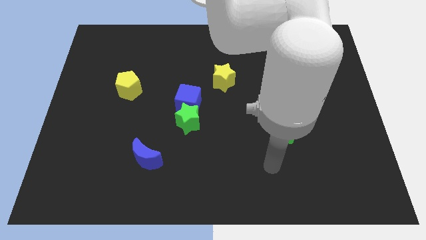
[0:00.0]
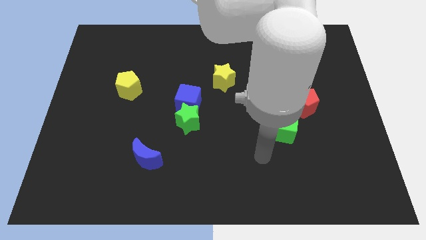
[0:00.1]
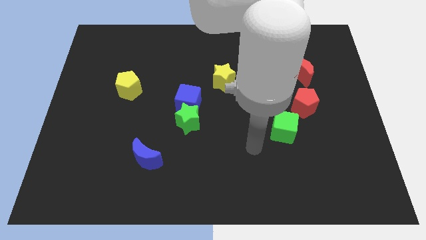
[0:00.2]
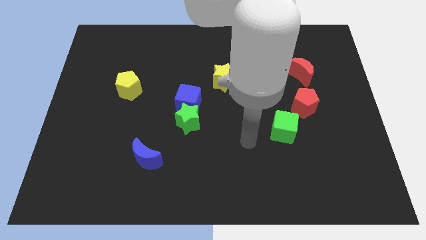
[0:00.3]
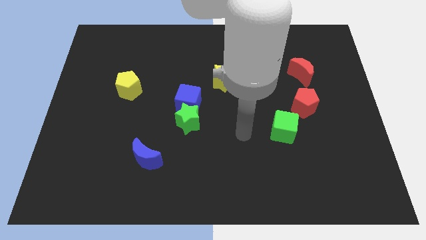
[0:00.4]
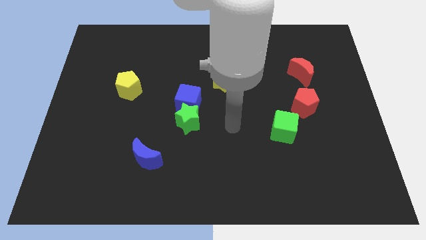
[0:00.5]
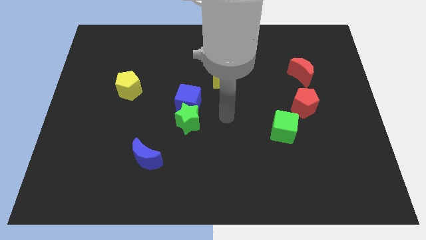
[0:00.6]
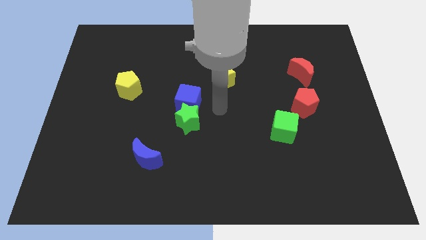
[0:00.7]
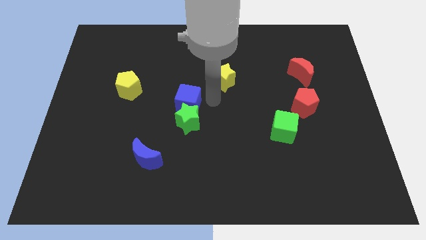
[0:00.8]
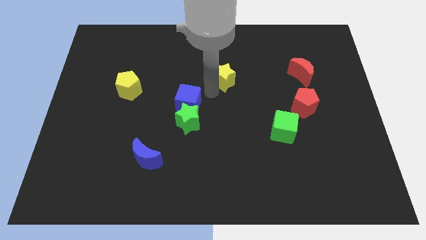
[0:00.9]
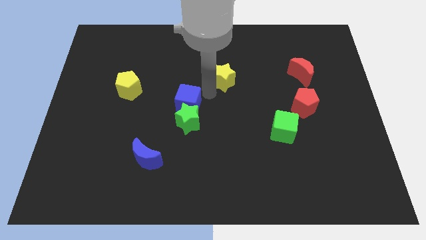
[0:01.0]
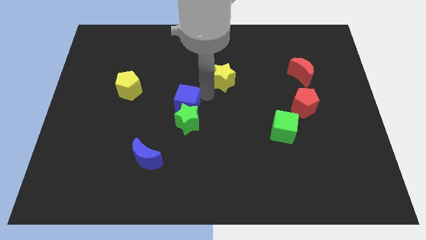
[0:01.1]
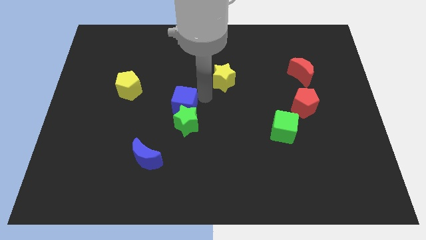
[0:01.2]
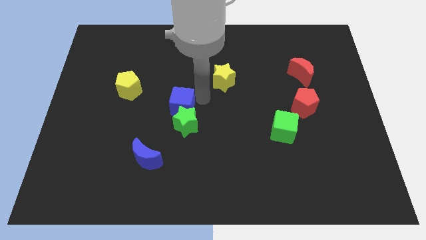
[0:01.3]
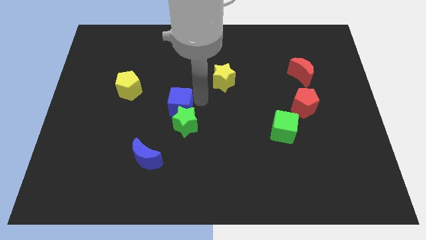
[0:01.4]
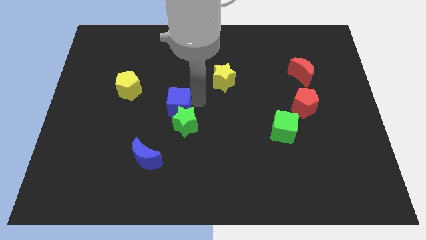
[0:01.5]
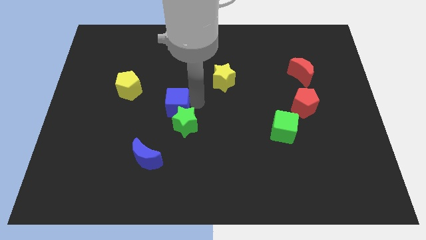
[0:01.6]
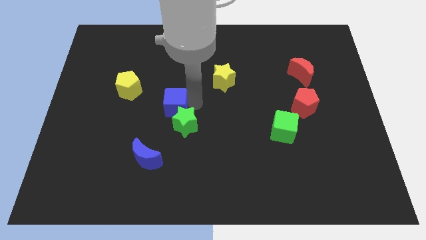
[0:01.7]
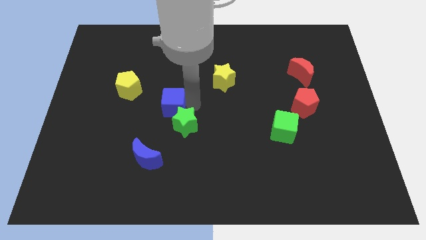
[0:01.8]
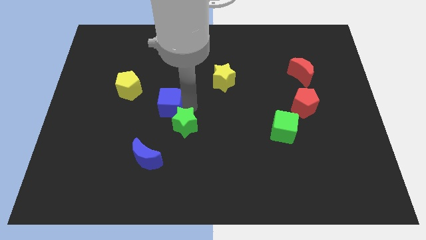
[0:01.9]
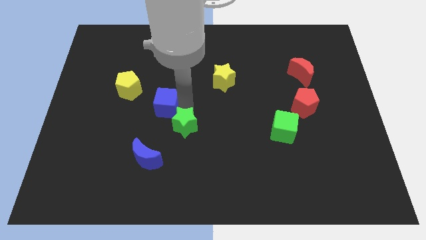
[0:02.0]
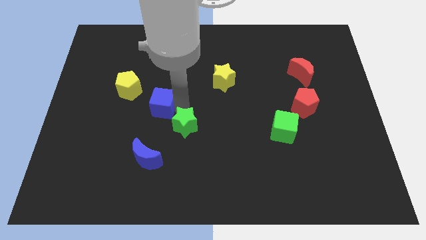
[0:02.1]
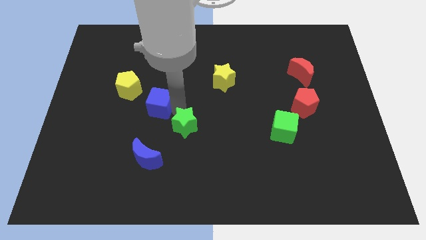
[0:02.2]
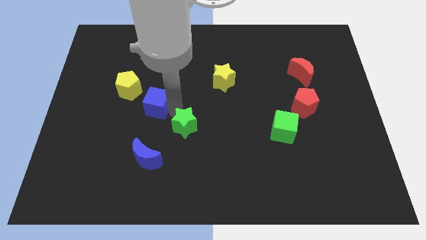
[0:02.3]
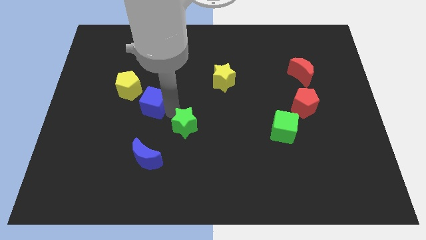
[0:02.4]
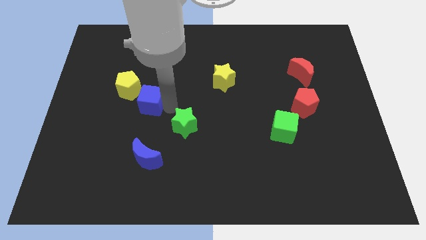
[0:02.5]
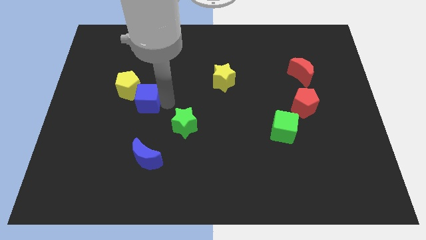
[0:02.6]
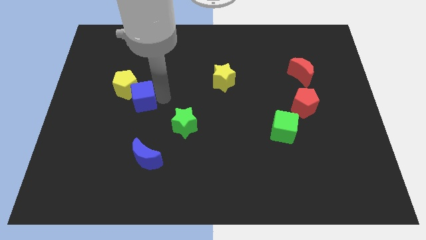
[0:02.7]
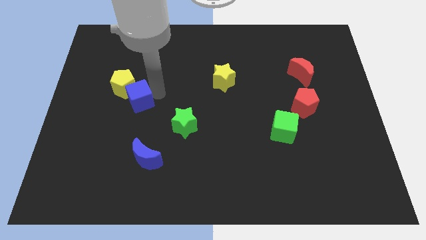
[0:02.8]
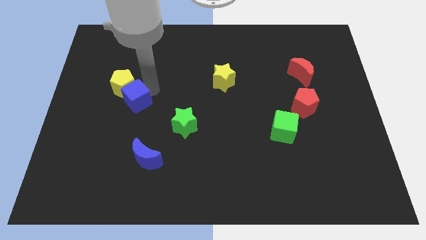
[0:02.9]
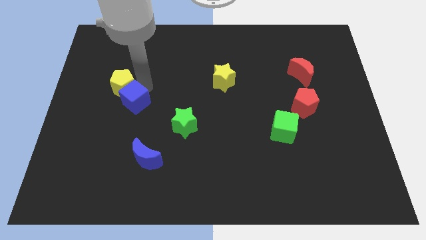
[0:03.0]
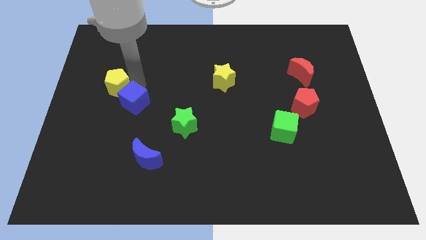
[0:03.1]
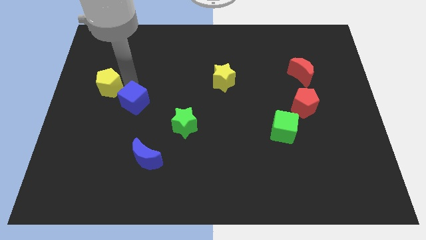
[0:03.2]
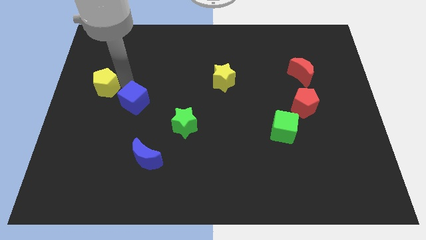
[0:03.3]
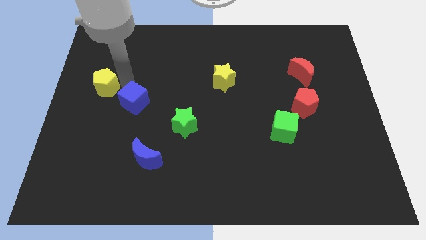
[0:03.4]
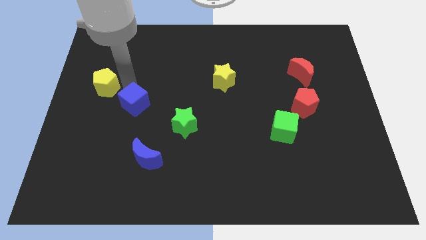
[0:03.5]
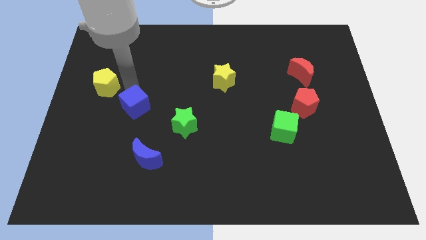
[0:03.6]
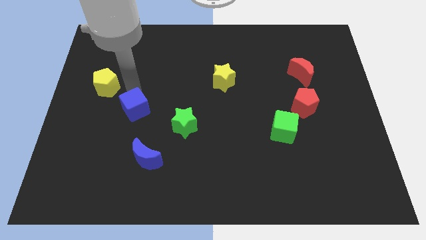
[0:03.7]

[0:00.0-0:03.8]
slide the blue cube diagonally down and left a bit

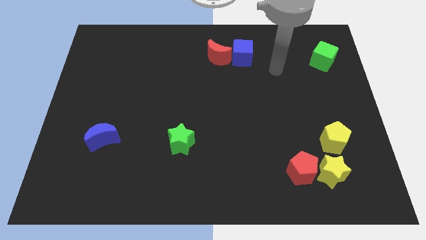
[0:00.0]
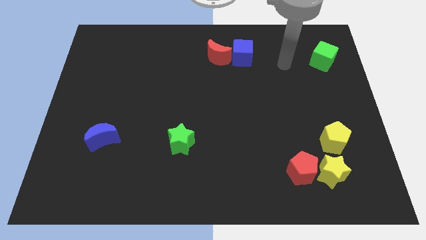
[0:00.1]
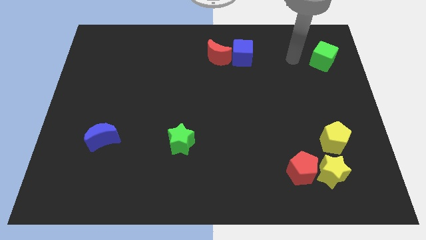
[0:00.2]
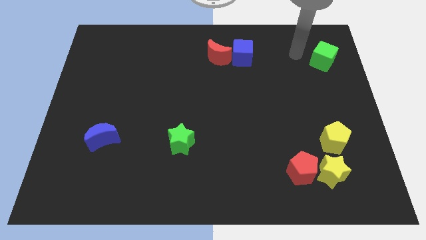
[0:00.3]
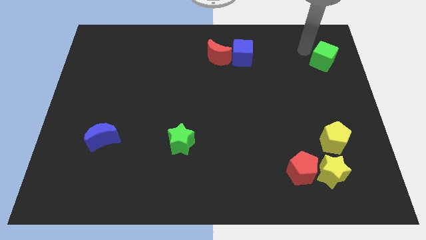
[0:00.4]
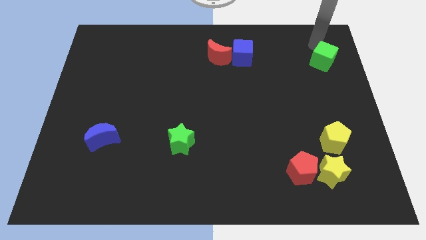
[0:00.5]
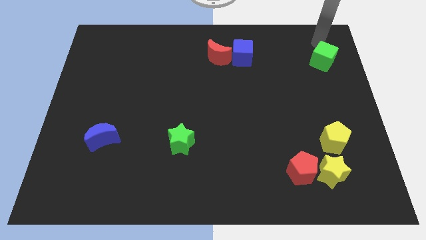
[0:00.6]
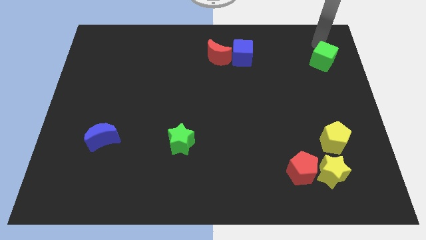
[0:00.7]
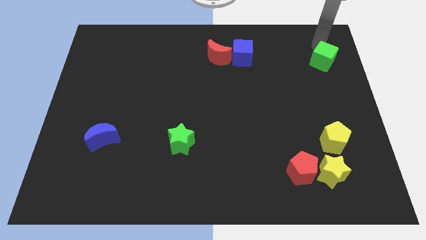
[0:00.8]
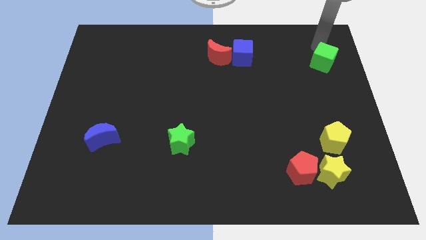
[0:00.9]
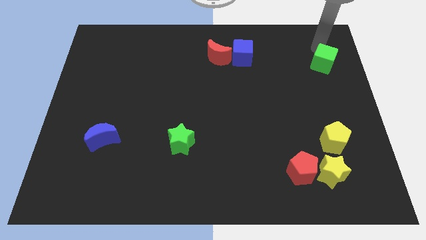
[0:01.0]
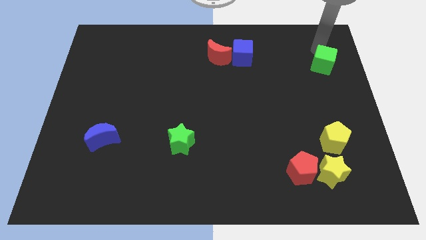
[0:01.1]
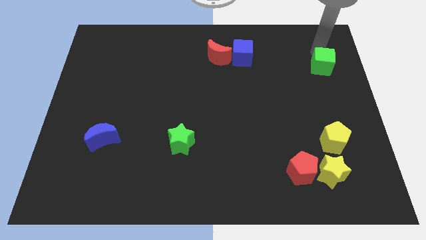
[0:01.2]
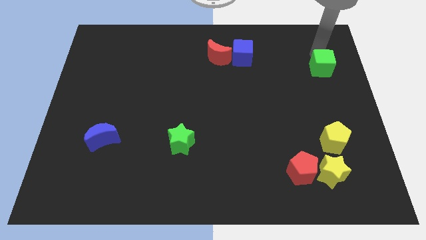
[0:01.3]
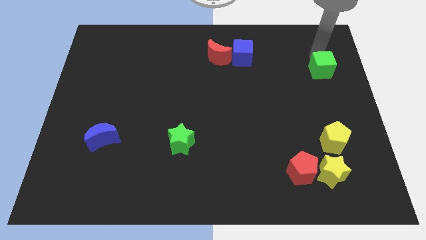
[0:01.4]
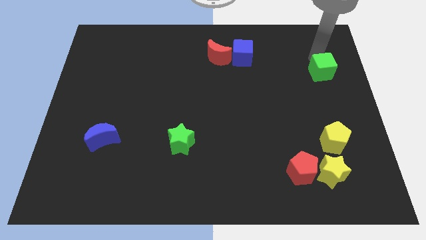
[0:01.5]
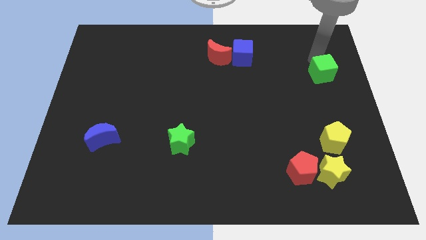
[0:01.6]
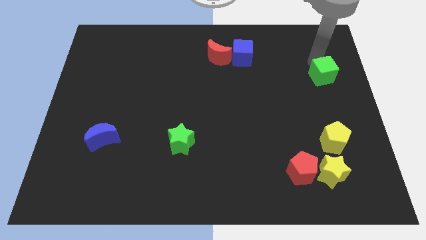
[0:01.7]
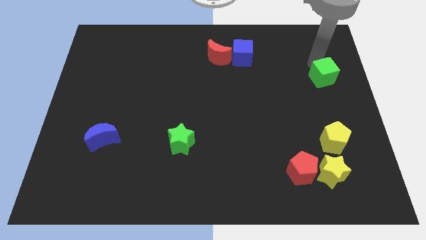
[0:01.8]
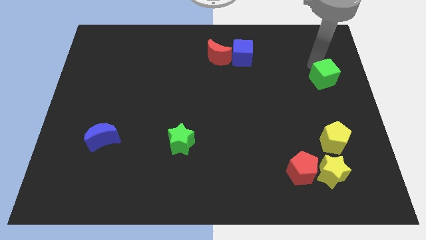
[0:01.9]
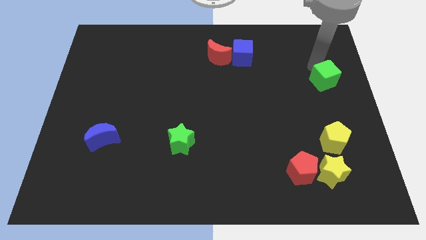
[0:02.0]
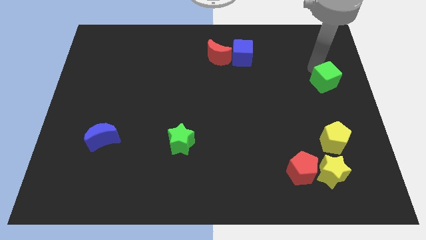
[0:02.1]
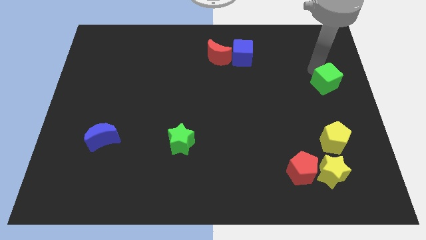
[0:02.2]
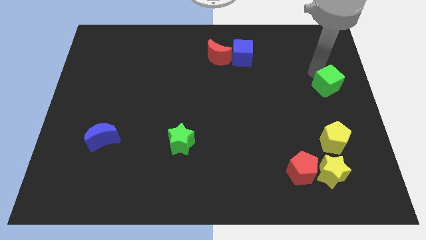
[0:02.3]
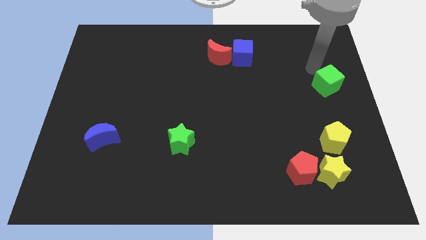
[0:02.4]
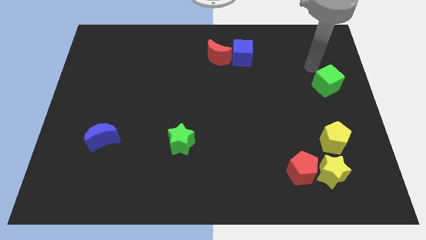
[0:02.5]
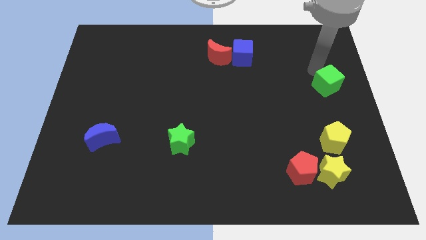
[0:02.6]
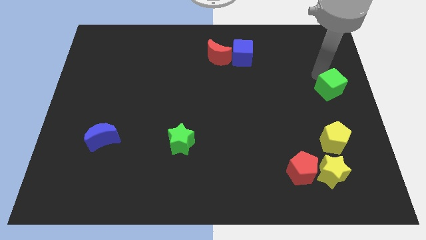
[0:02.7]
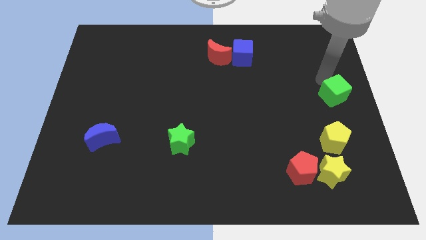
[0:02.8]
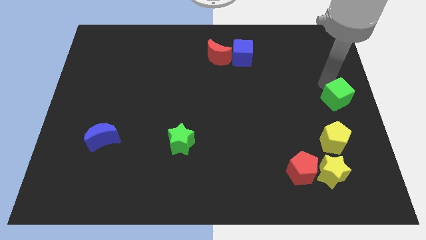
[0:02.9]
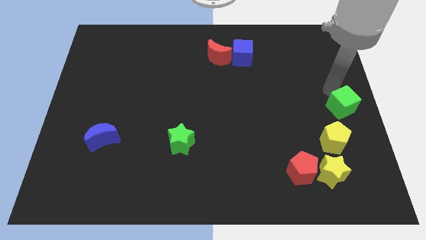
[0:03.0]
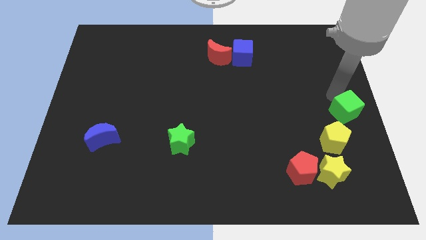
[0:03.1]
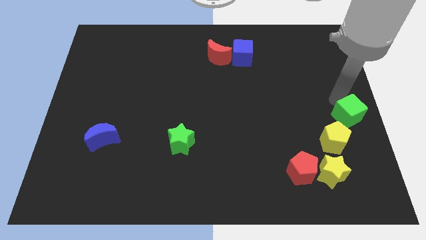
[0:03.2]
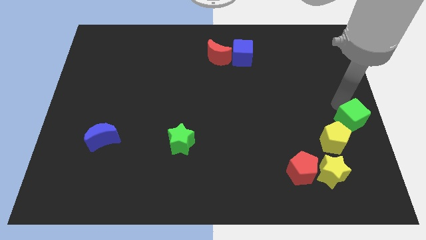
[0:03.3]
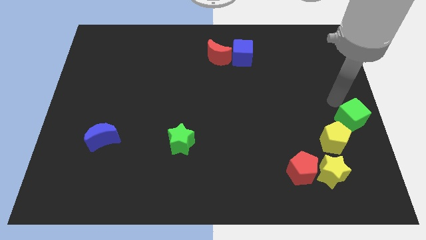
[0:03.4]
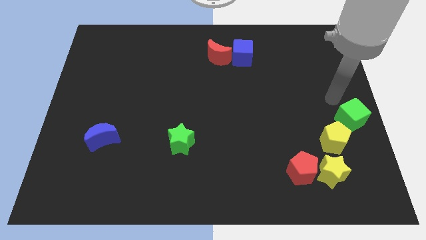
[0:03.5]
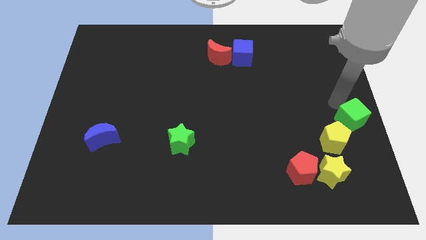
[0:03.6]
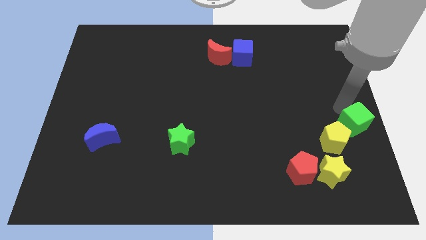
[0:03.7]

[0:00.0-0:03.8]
push the green cube downwards

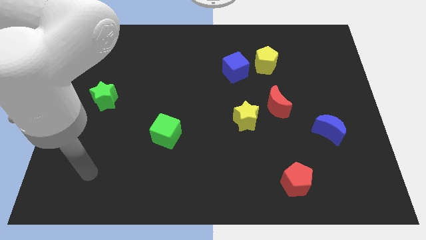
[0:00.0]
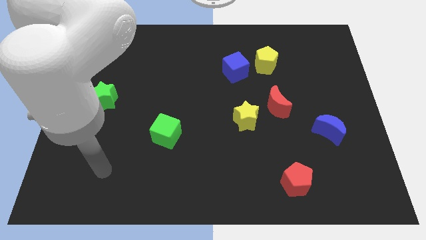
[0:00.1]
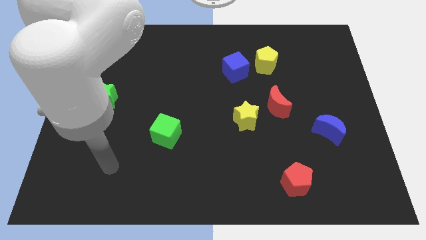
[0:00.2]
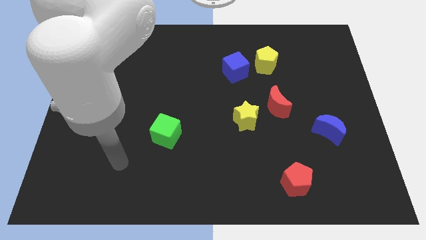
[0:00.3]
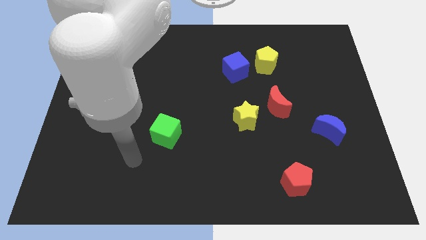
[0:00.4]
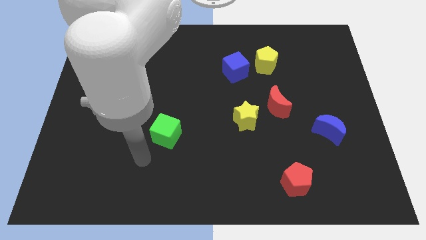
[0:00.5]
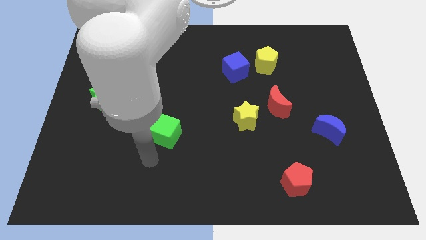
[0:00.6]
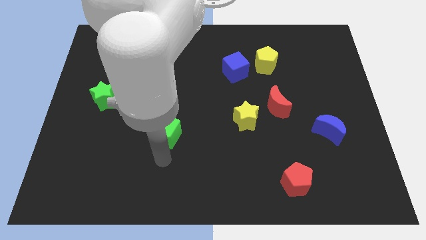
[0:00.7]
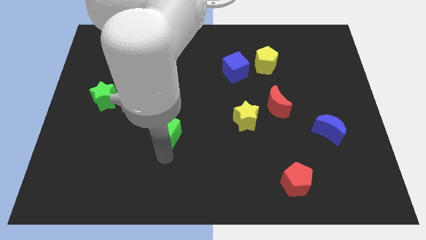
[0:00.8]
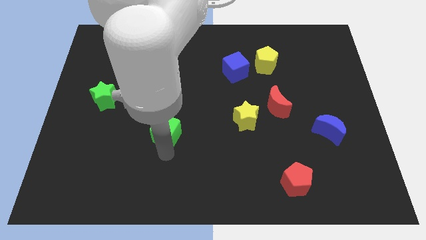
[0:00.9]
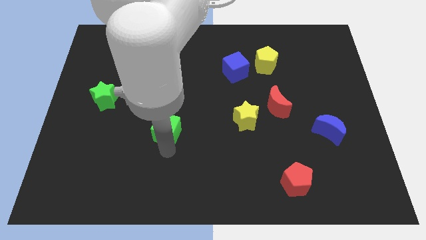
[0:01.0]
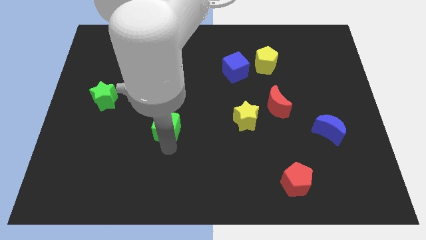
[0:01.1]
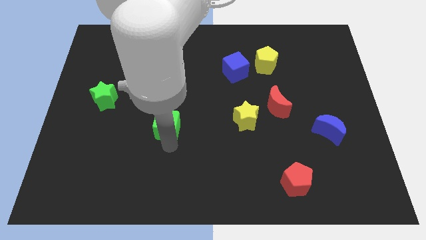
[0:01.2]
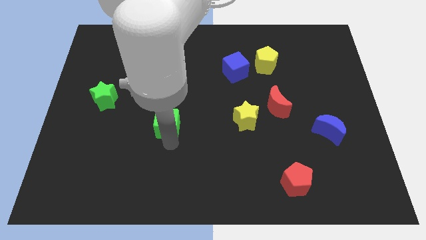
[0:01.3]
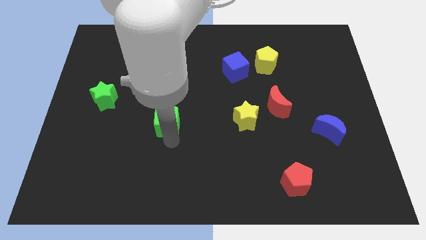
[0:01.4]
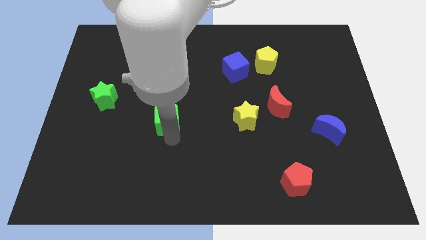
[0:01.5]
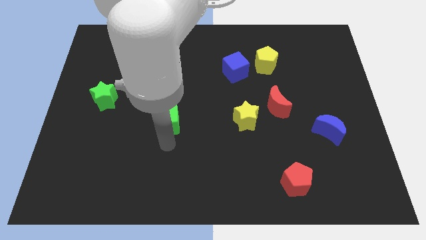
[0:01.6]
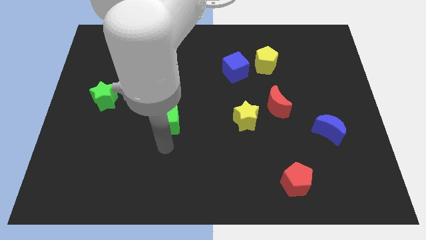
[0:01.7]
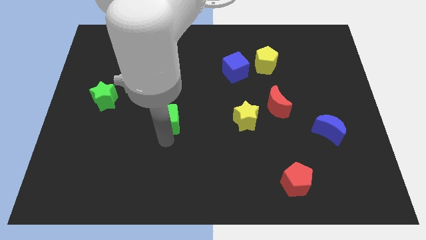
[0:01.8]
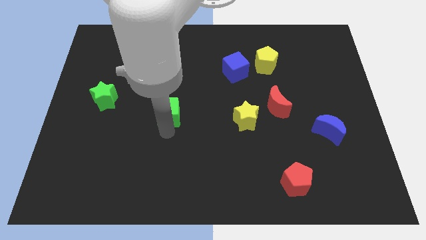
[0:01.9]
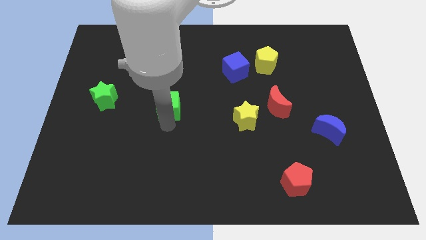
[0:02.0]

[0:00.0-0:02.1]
push the green cube somewhat up
